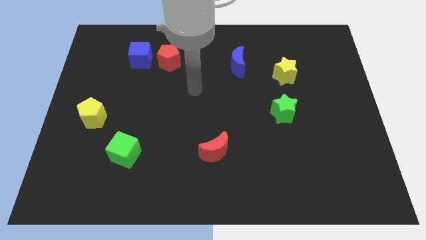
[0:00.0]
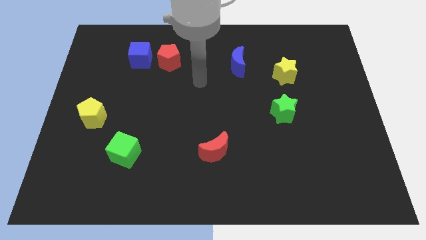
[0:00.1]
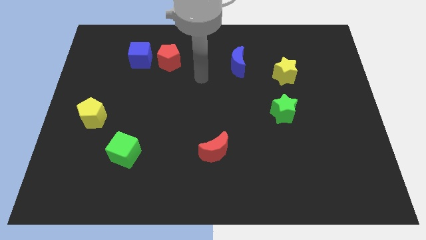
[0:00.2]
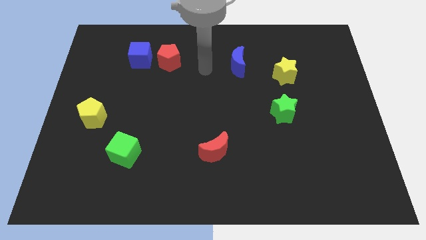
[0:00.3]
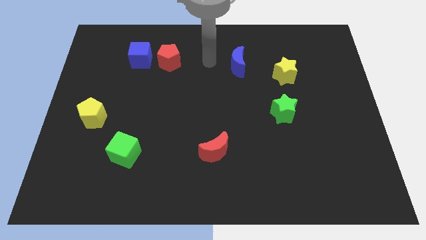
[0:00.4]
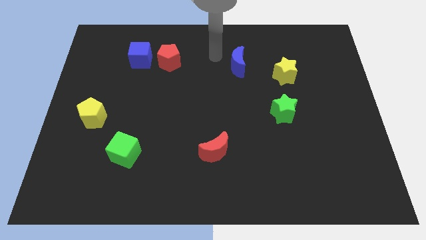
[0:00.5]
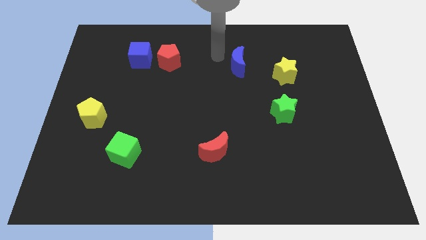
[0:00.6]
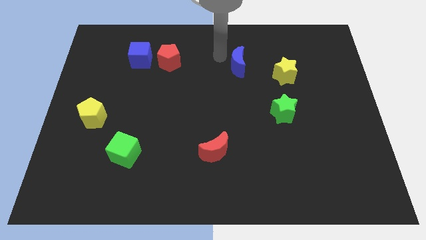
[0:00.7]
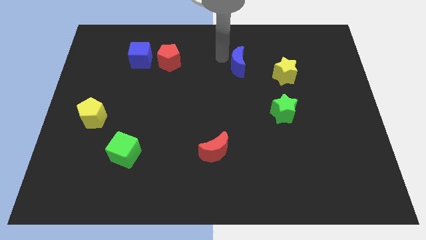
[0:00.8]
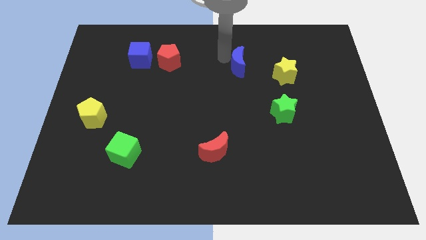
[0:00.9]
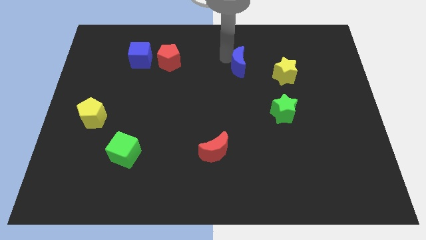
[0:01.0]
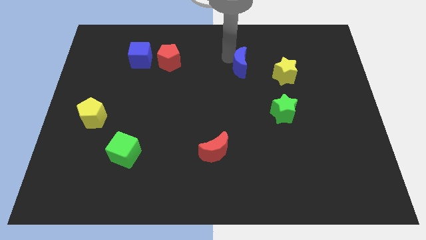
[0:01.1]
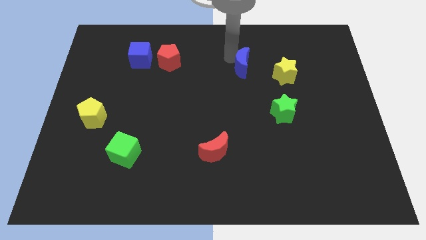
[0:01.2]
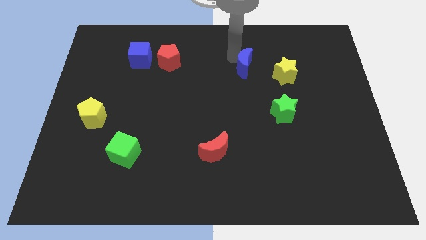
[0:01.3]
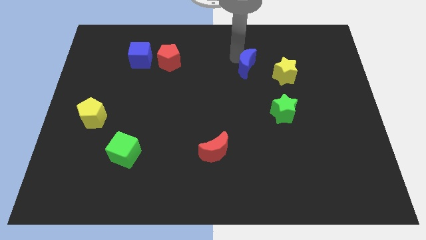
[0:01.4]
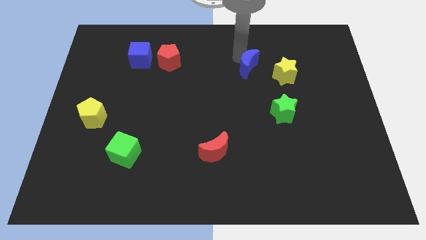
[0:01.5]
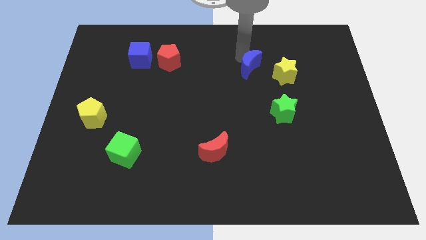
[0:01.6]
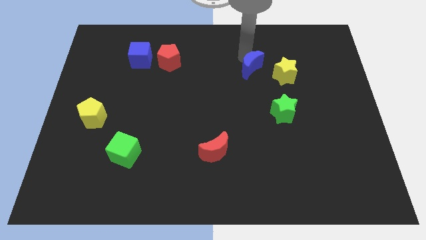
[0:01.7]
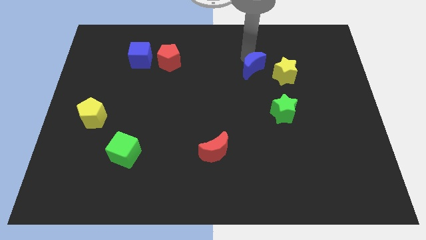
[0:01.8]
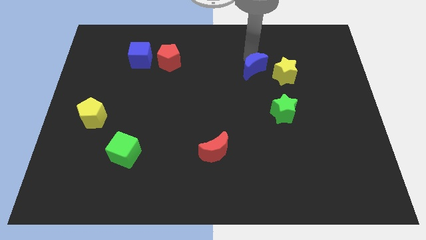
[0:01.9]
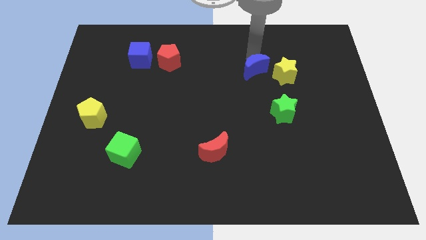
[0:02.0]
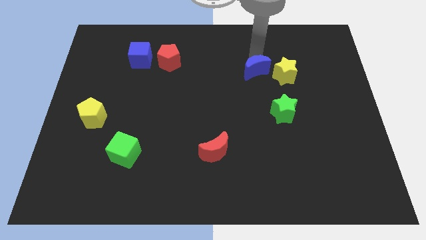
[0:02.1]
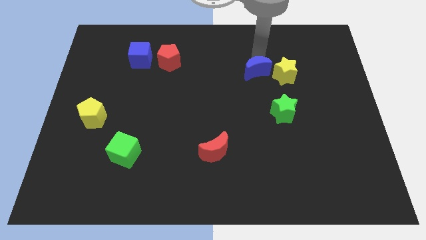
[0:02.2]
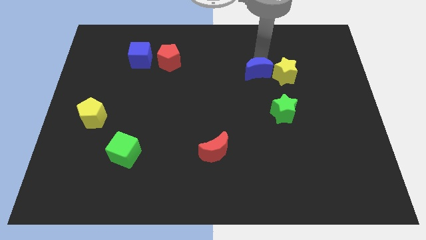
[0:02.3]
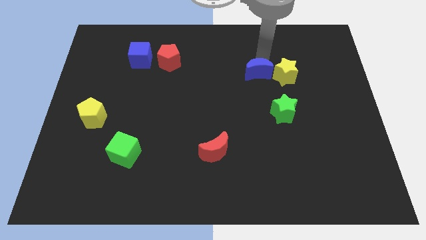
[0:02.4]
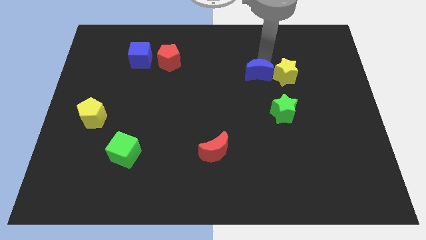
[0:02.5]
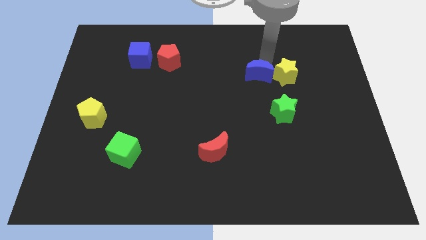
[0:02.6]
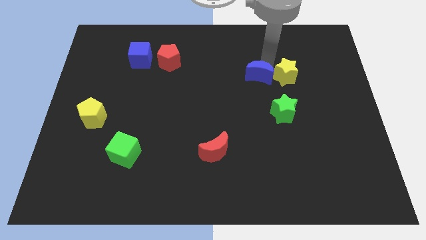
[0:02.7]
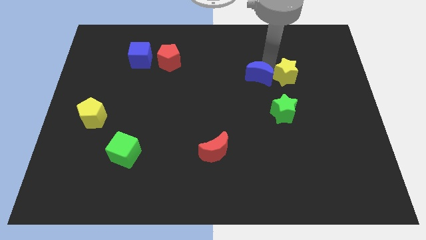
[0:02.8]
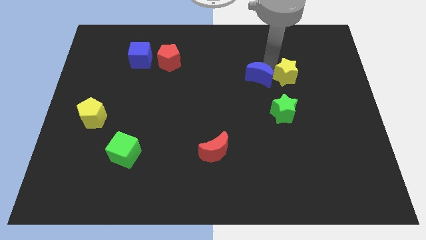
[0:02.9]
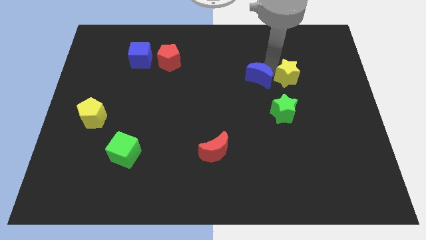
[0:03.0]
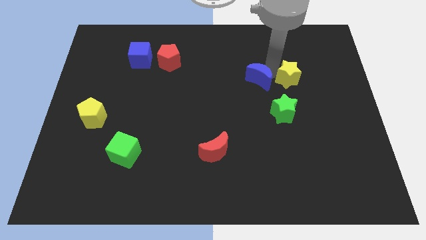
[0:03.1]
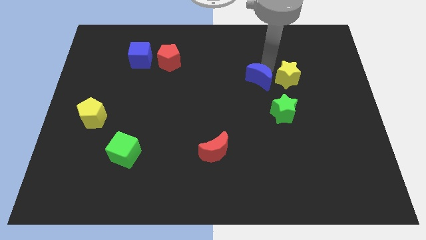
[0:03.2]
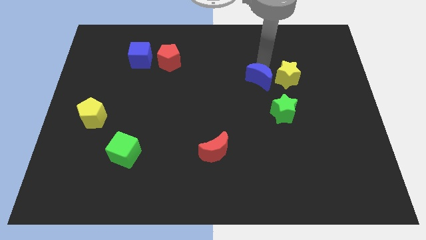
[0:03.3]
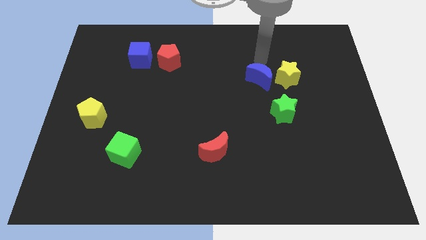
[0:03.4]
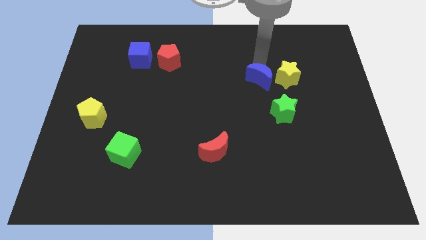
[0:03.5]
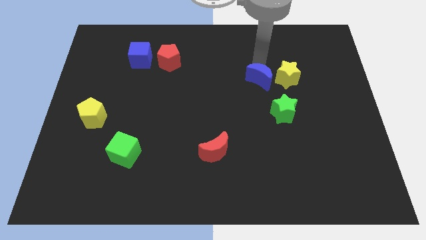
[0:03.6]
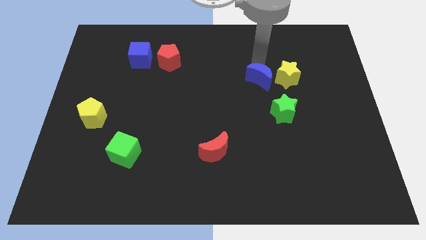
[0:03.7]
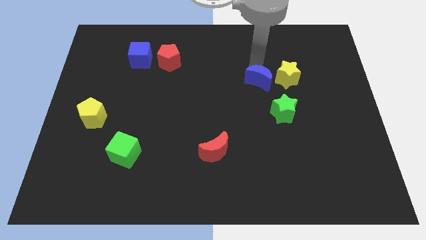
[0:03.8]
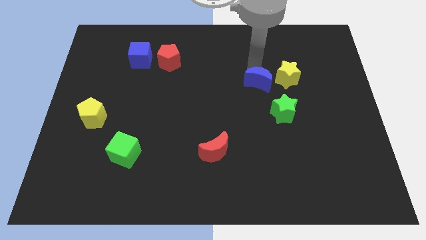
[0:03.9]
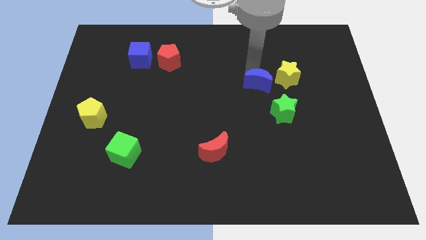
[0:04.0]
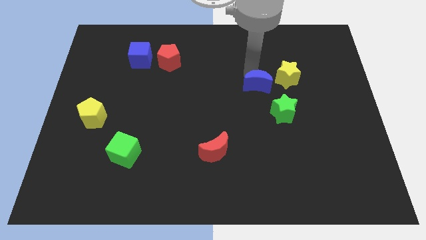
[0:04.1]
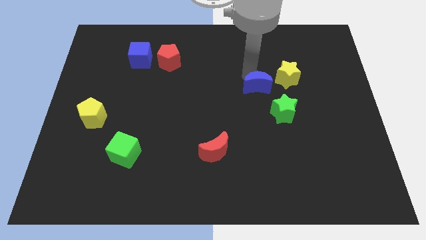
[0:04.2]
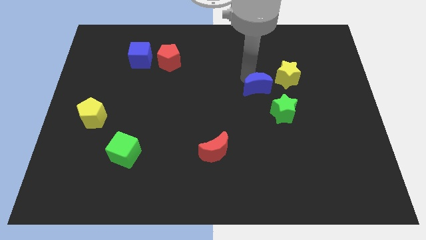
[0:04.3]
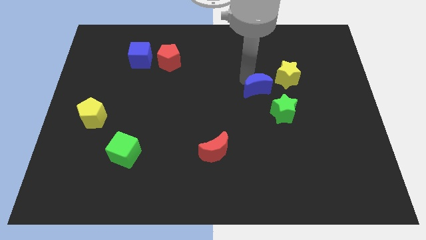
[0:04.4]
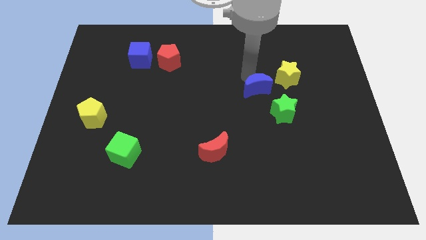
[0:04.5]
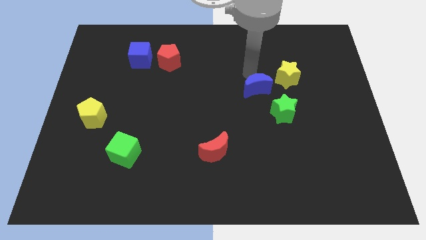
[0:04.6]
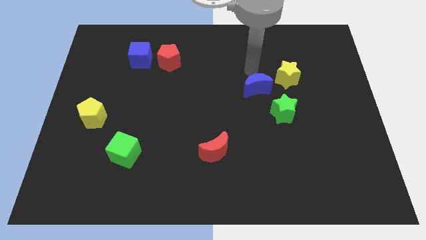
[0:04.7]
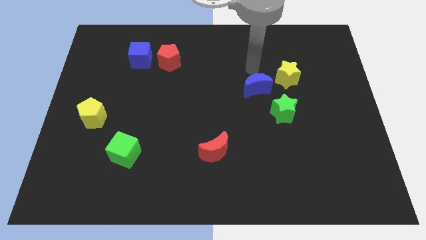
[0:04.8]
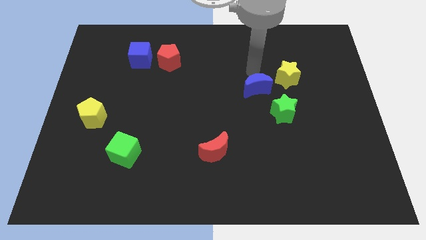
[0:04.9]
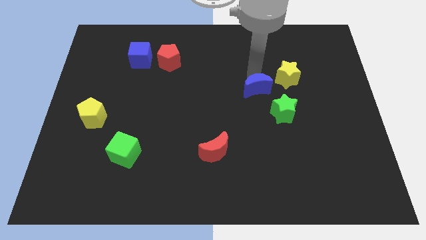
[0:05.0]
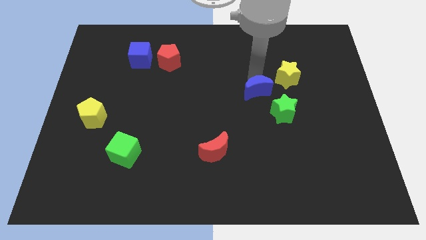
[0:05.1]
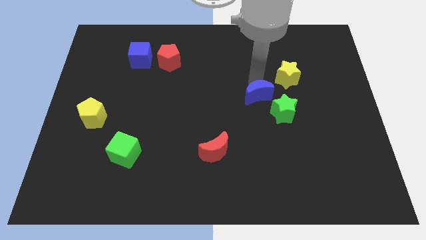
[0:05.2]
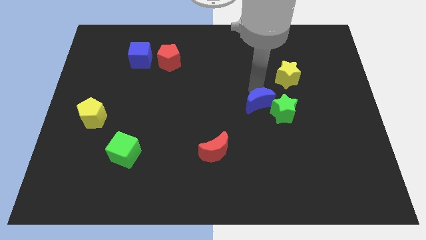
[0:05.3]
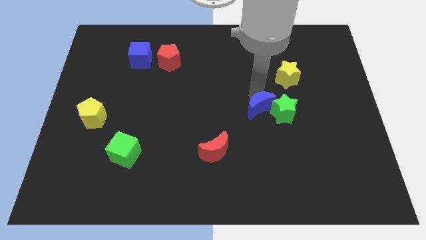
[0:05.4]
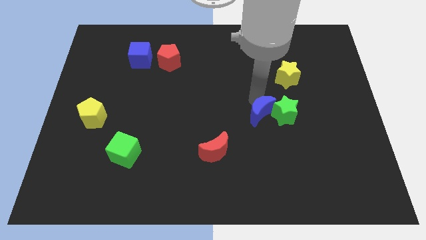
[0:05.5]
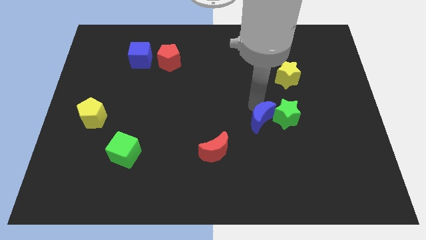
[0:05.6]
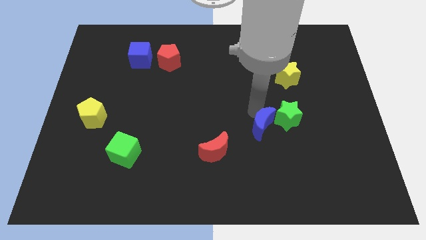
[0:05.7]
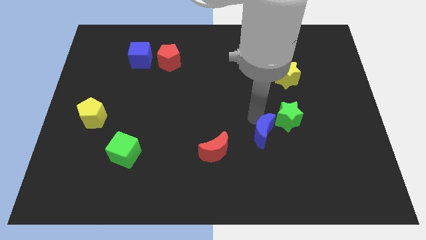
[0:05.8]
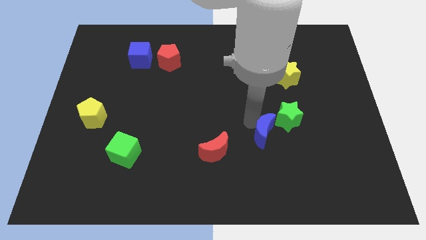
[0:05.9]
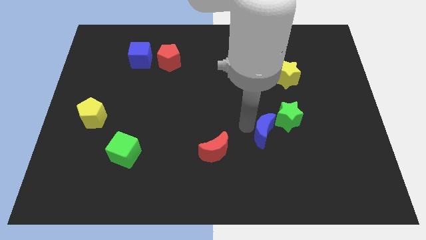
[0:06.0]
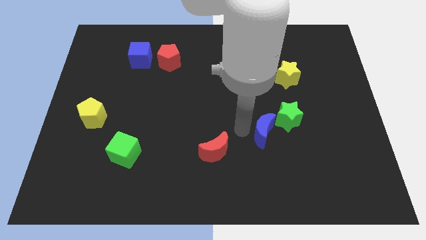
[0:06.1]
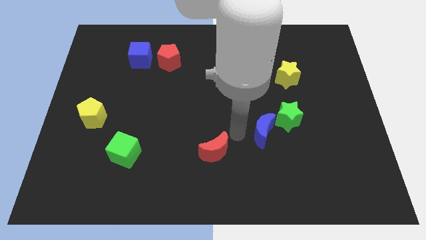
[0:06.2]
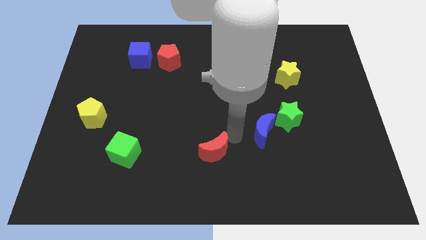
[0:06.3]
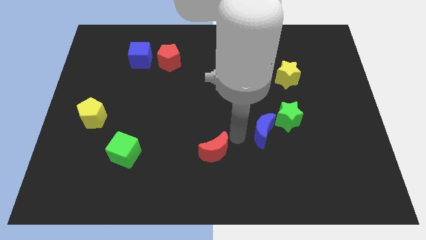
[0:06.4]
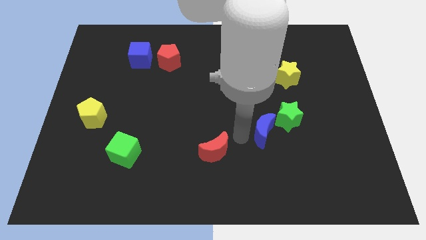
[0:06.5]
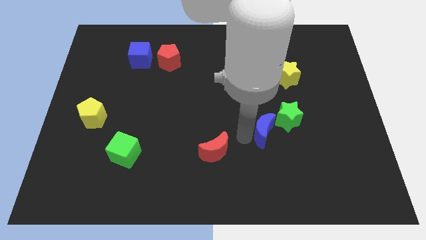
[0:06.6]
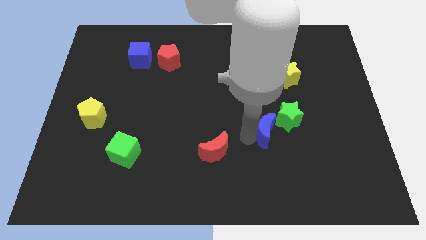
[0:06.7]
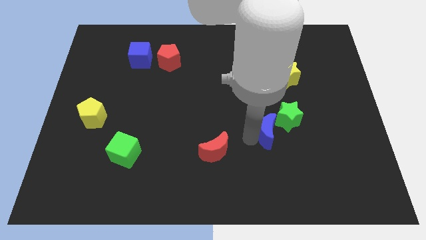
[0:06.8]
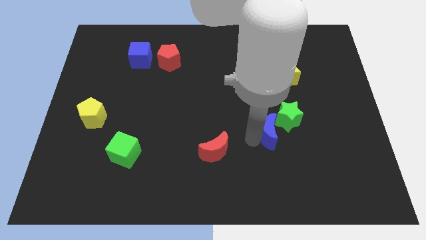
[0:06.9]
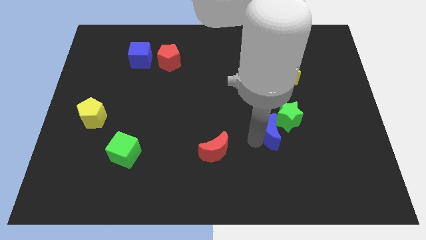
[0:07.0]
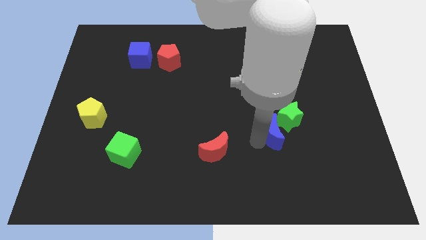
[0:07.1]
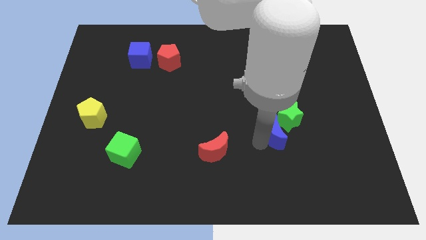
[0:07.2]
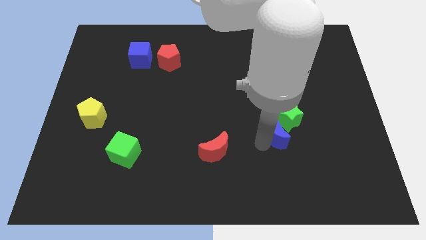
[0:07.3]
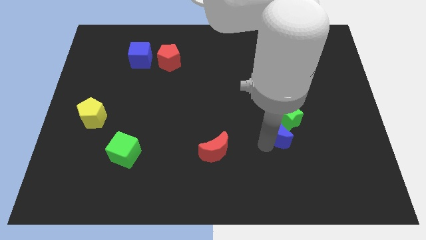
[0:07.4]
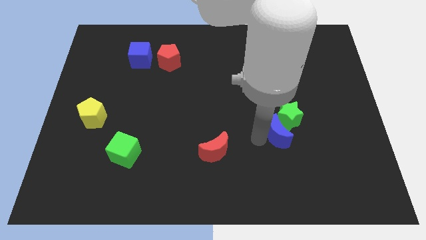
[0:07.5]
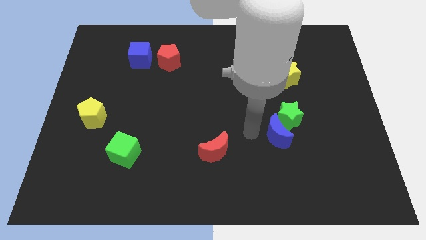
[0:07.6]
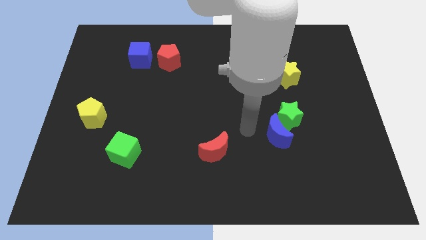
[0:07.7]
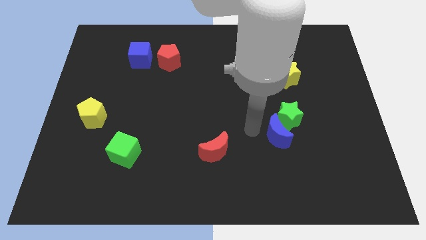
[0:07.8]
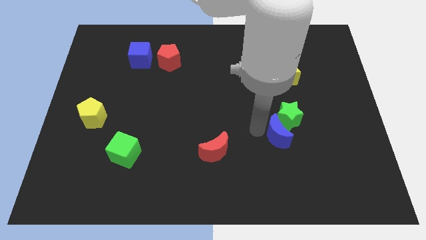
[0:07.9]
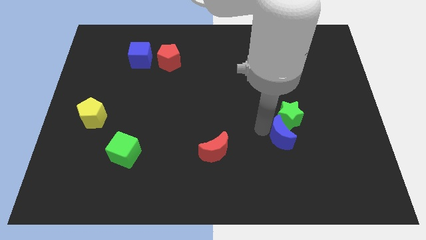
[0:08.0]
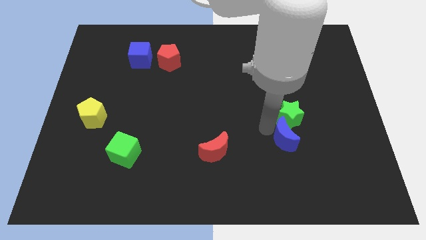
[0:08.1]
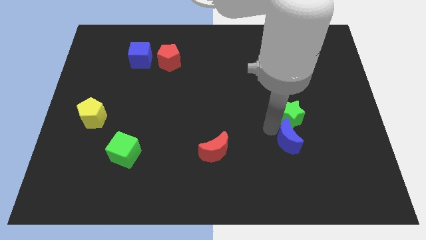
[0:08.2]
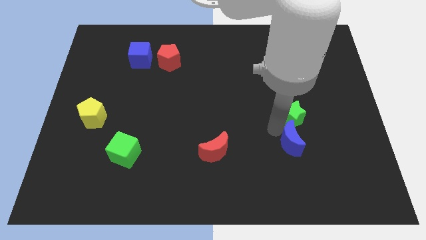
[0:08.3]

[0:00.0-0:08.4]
move the blue moon downwards and to the right
